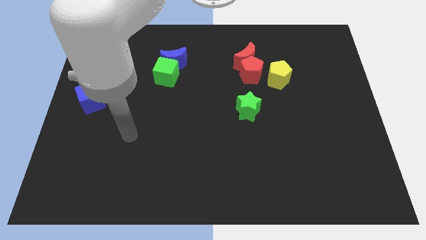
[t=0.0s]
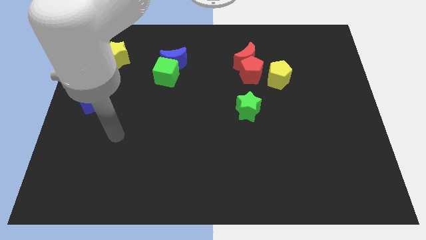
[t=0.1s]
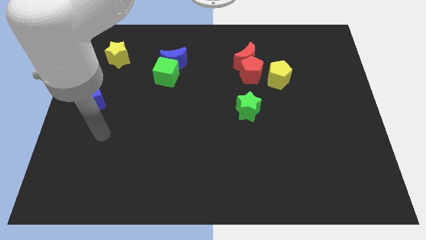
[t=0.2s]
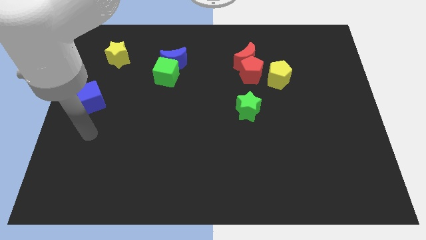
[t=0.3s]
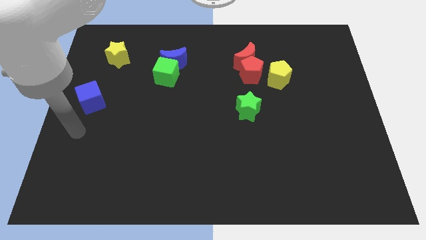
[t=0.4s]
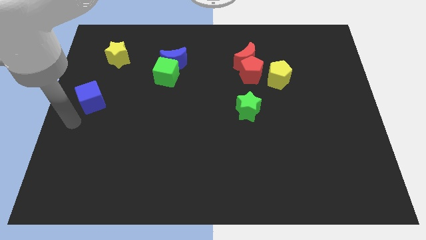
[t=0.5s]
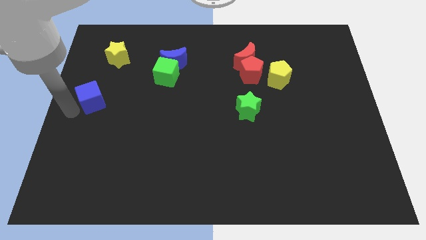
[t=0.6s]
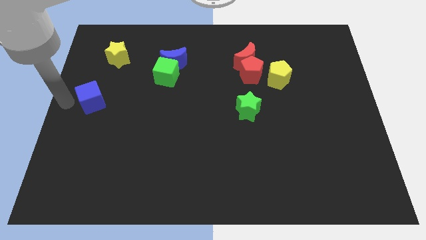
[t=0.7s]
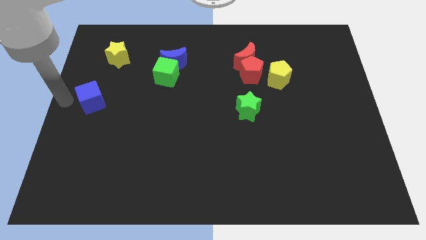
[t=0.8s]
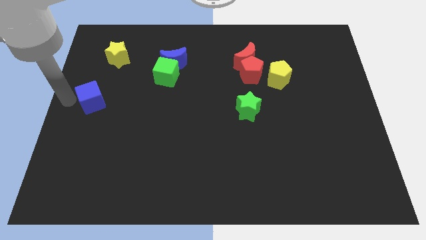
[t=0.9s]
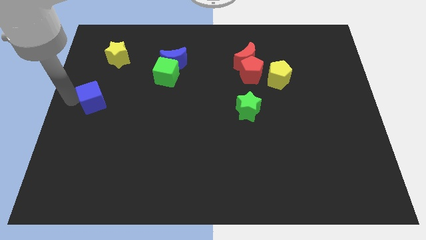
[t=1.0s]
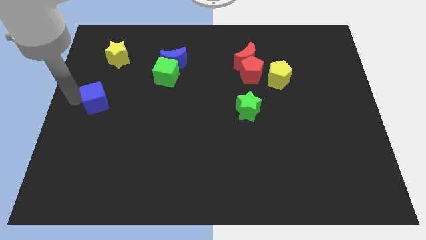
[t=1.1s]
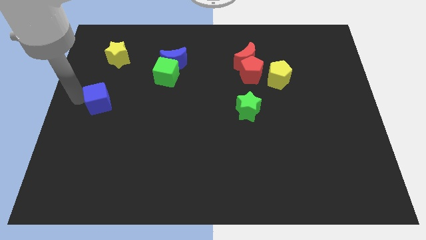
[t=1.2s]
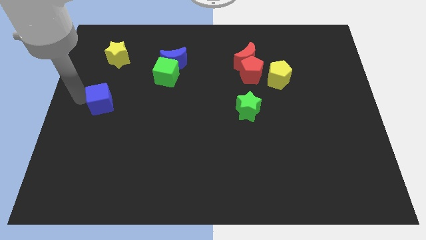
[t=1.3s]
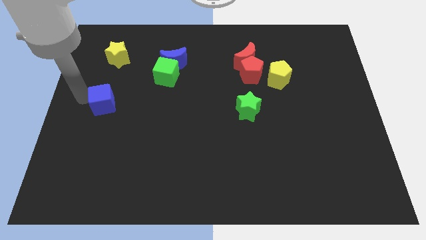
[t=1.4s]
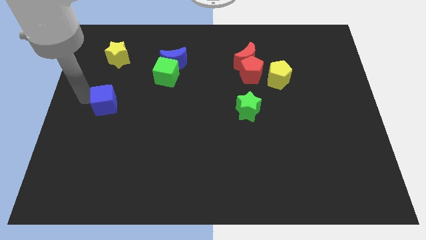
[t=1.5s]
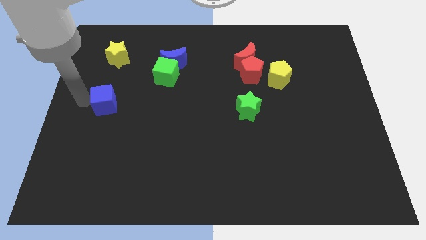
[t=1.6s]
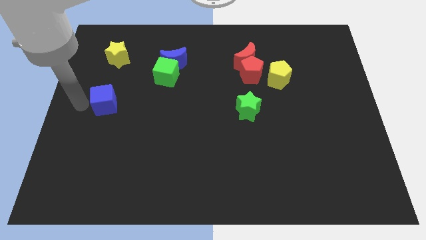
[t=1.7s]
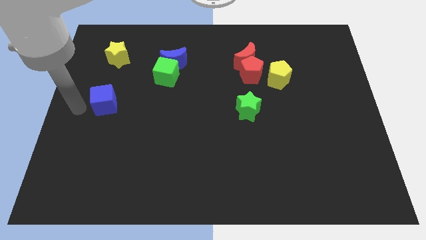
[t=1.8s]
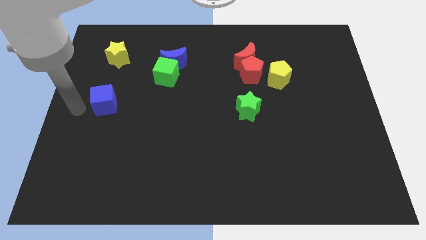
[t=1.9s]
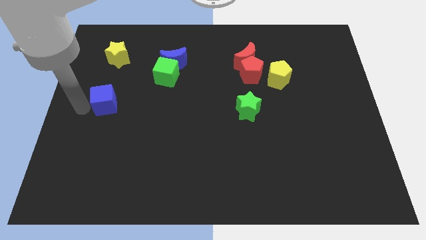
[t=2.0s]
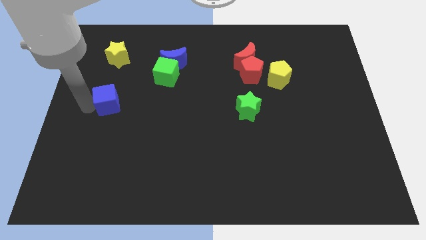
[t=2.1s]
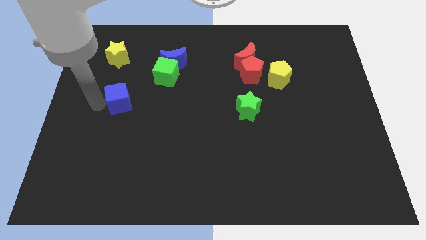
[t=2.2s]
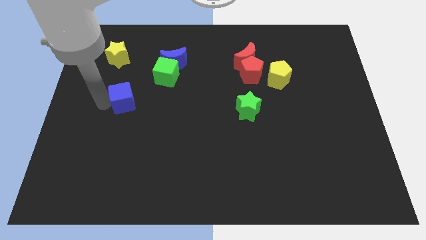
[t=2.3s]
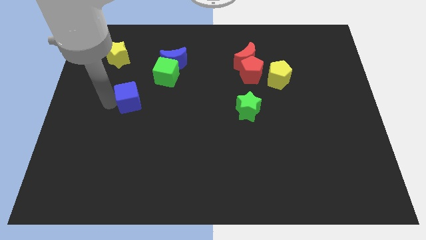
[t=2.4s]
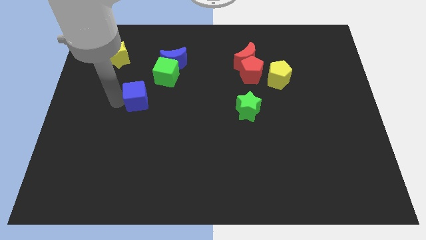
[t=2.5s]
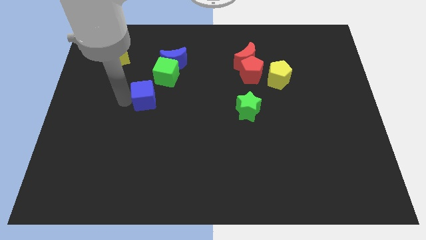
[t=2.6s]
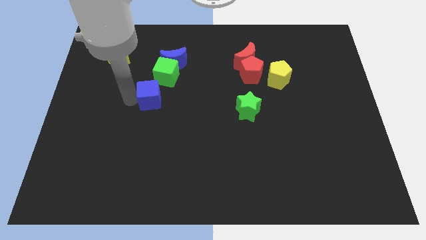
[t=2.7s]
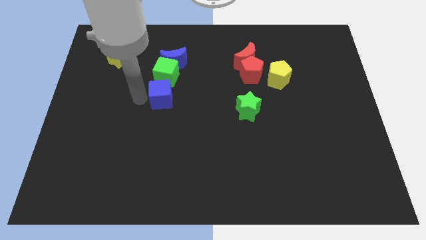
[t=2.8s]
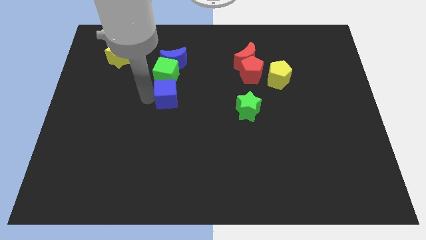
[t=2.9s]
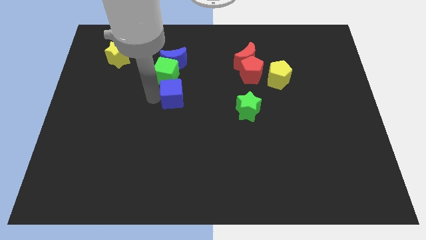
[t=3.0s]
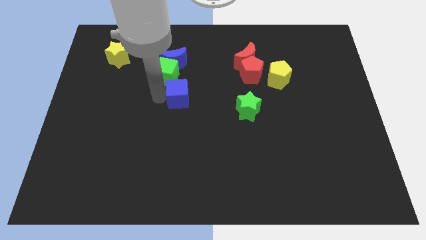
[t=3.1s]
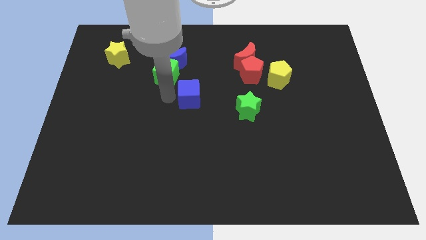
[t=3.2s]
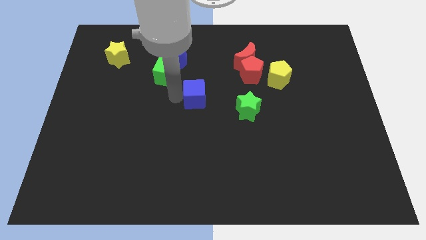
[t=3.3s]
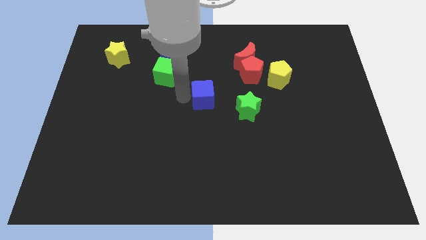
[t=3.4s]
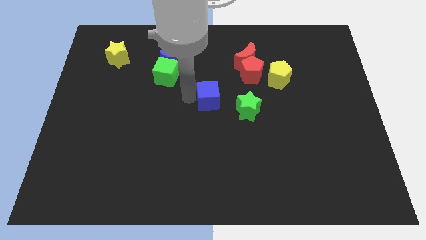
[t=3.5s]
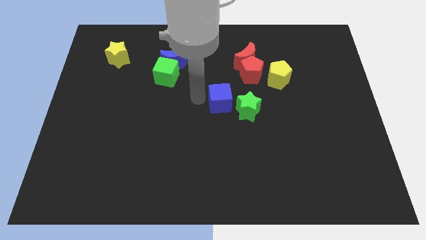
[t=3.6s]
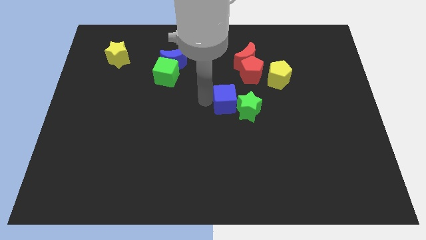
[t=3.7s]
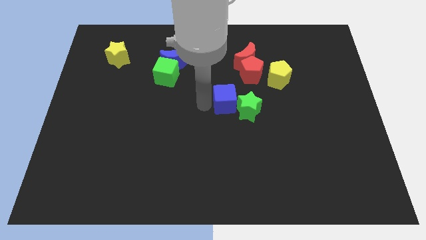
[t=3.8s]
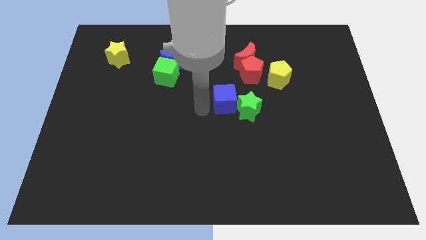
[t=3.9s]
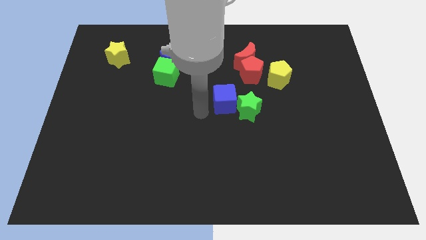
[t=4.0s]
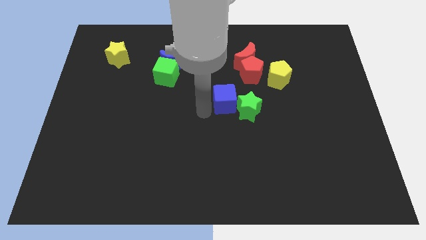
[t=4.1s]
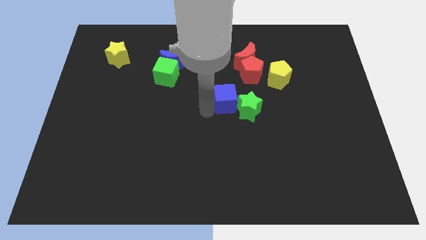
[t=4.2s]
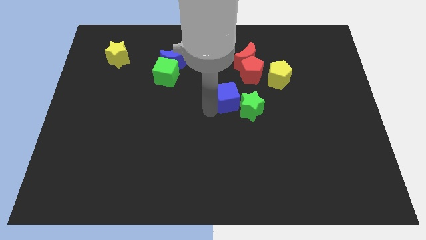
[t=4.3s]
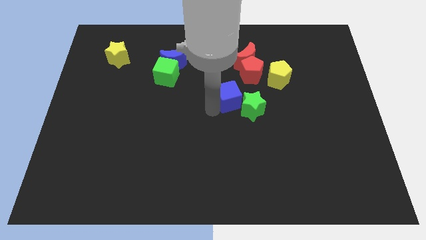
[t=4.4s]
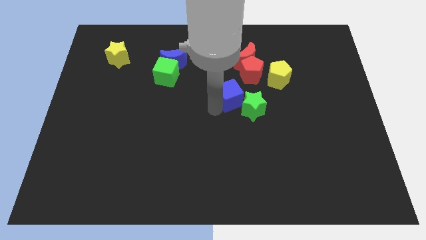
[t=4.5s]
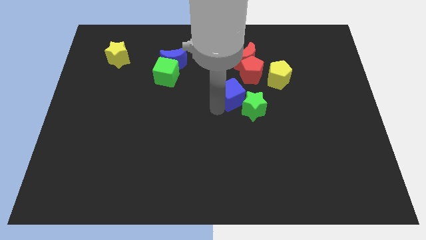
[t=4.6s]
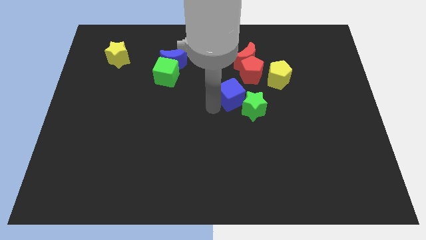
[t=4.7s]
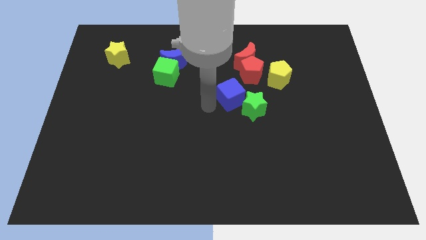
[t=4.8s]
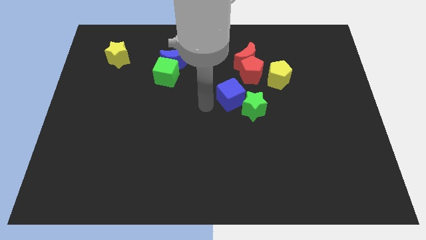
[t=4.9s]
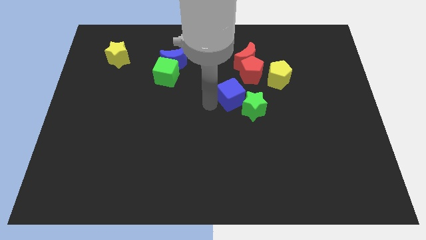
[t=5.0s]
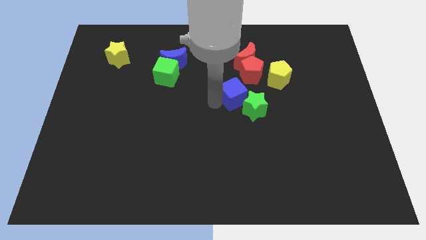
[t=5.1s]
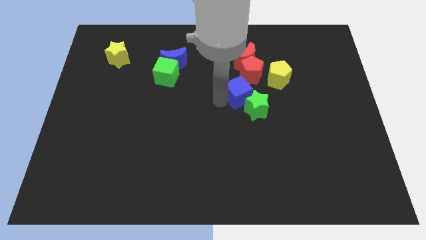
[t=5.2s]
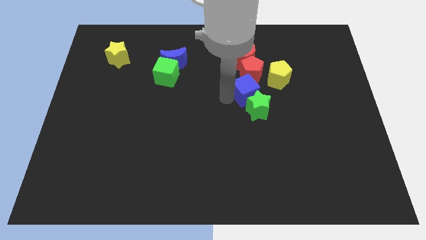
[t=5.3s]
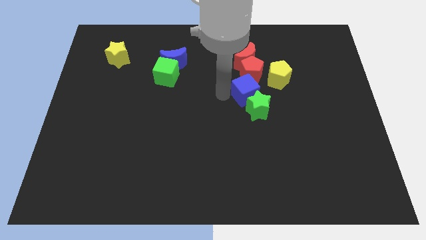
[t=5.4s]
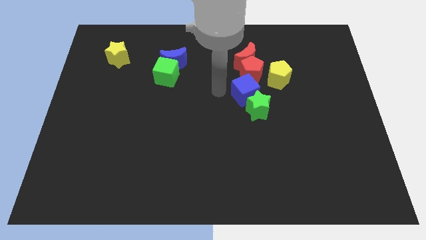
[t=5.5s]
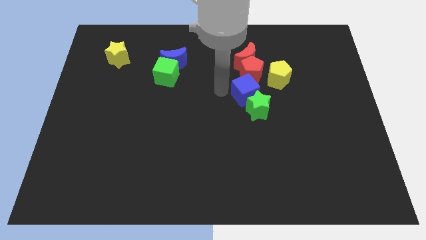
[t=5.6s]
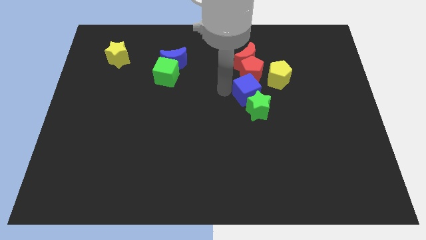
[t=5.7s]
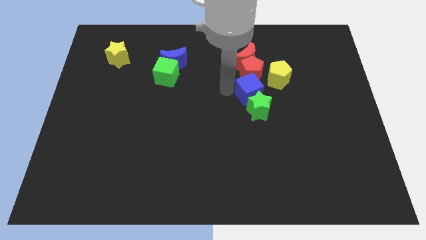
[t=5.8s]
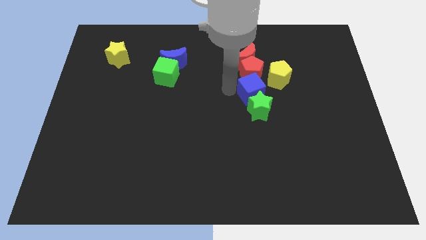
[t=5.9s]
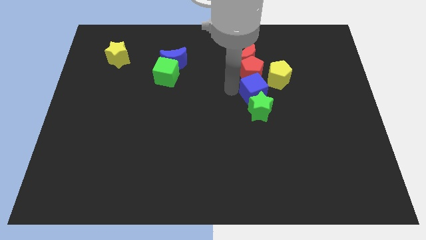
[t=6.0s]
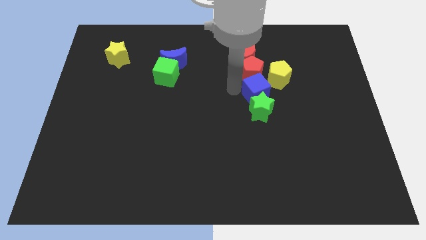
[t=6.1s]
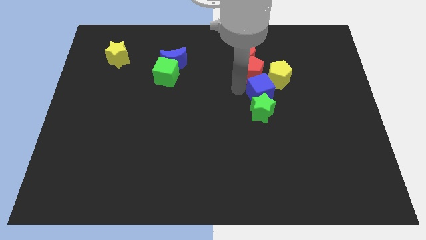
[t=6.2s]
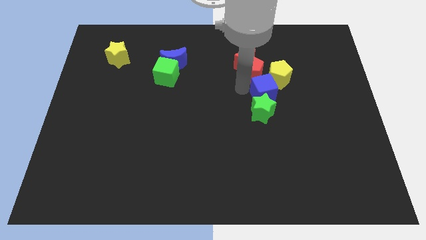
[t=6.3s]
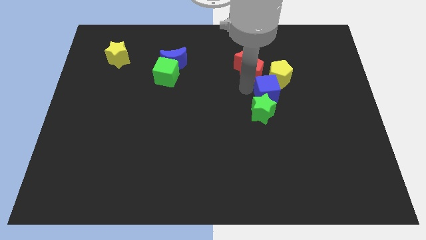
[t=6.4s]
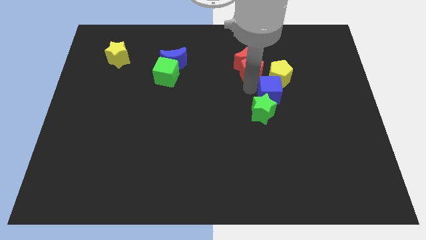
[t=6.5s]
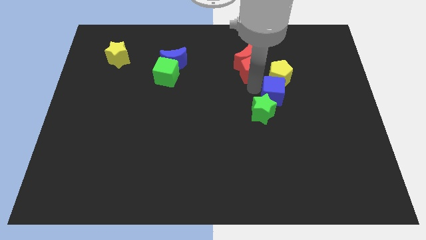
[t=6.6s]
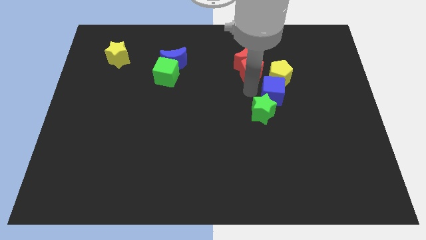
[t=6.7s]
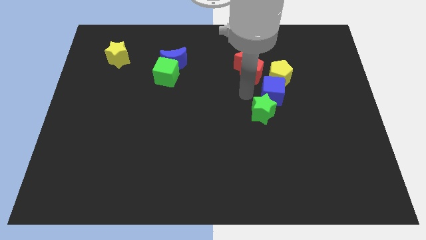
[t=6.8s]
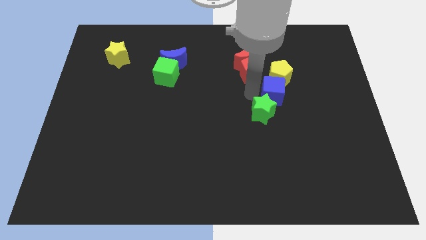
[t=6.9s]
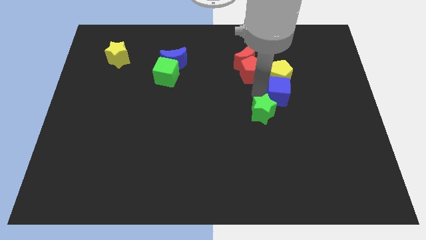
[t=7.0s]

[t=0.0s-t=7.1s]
move the blue cube to the bottom right side of the yellow pentagon
